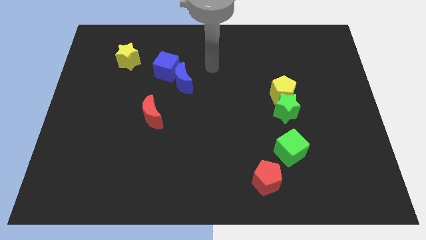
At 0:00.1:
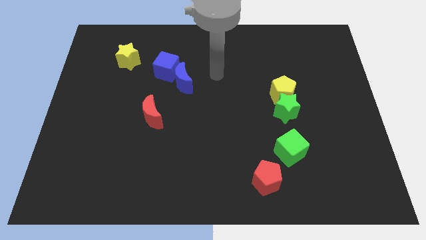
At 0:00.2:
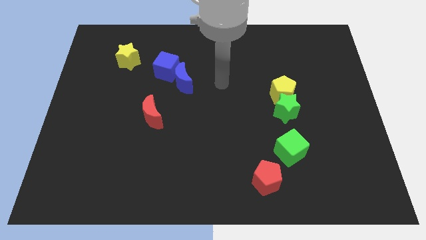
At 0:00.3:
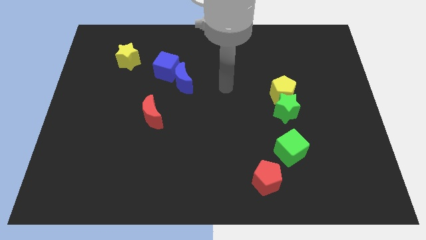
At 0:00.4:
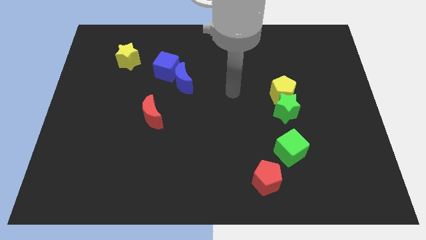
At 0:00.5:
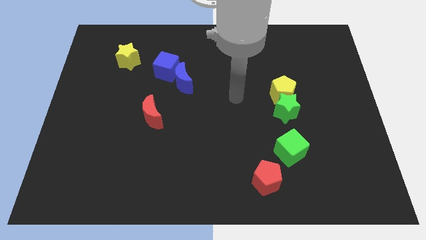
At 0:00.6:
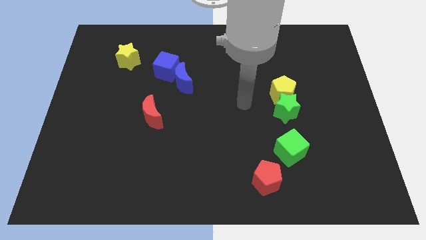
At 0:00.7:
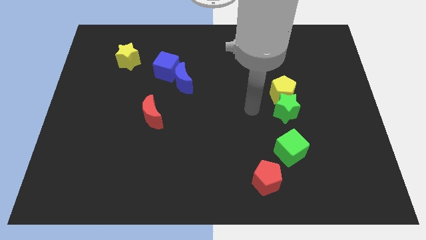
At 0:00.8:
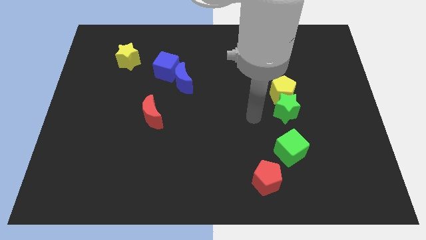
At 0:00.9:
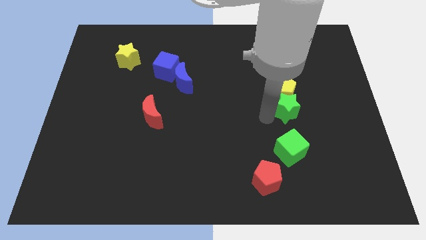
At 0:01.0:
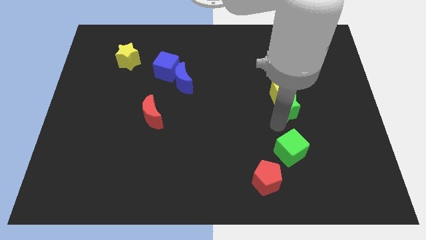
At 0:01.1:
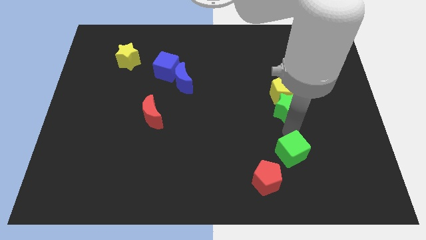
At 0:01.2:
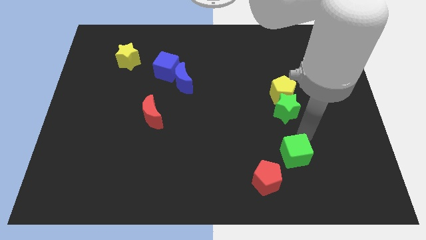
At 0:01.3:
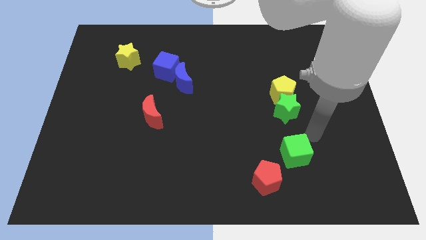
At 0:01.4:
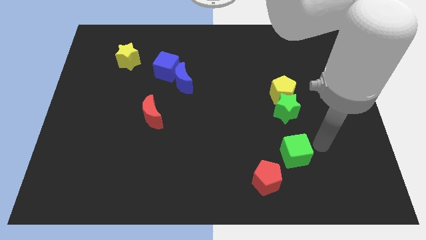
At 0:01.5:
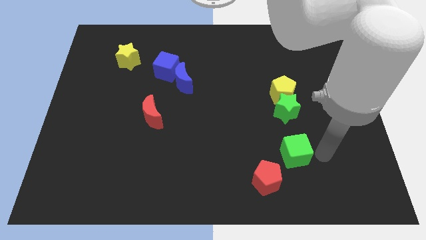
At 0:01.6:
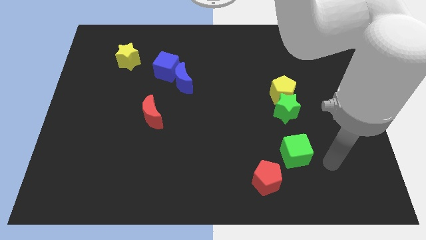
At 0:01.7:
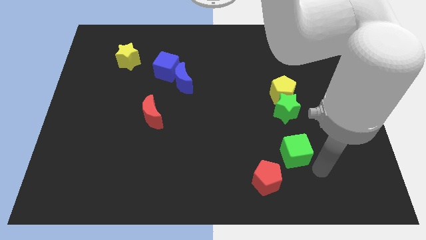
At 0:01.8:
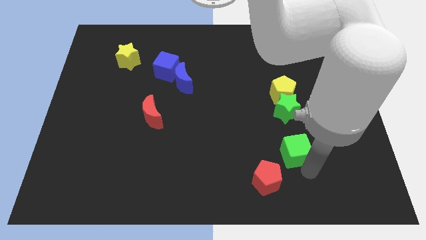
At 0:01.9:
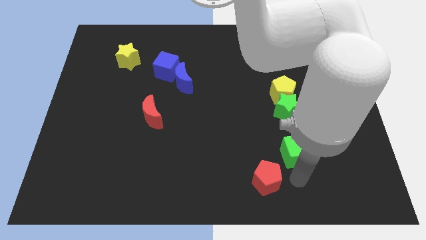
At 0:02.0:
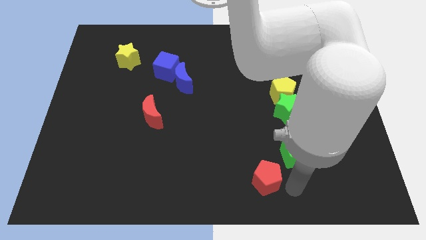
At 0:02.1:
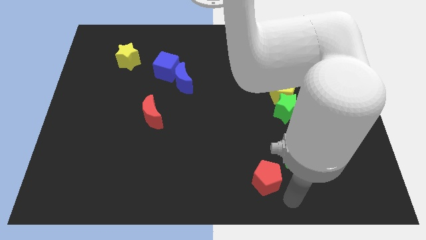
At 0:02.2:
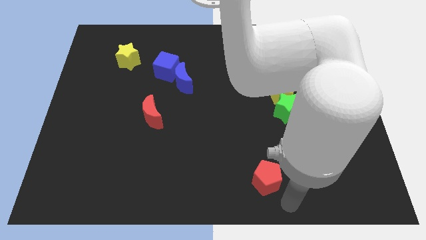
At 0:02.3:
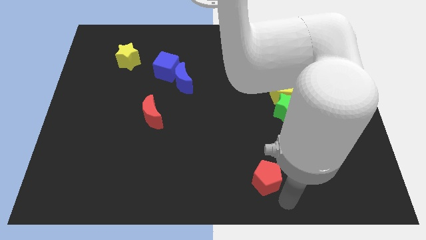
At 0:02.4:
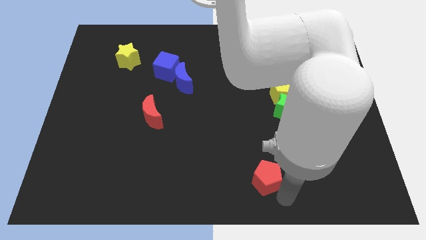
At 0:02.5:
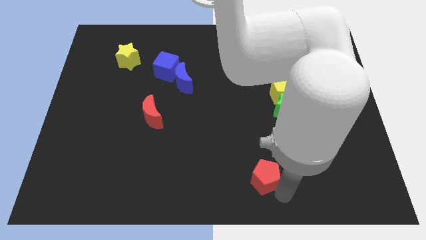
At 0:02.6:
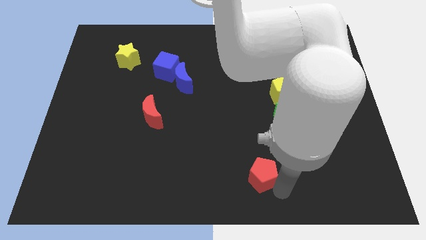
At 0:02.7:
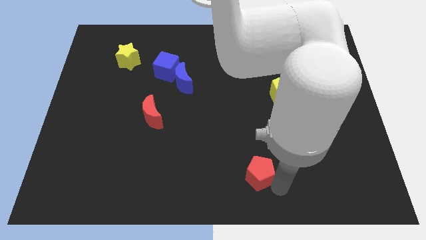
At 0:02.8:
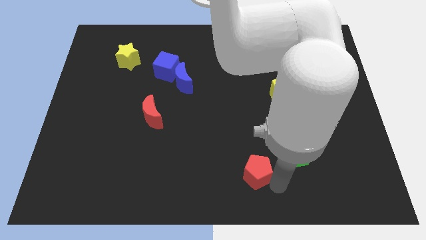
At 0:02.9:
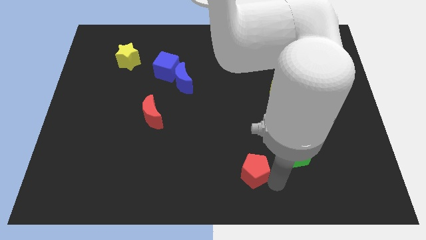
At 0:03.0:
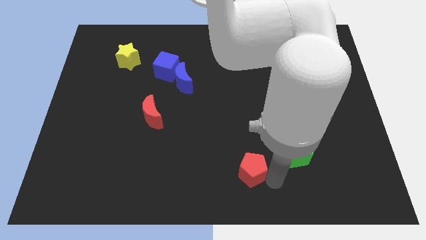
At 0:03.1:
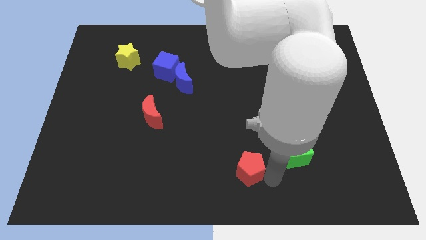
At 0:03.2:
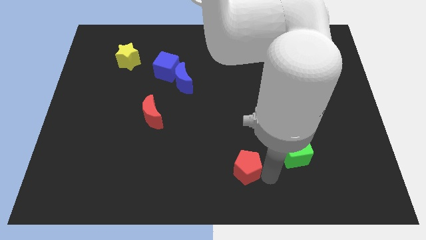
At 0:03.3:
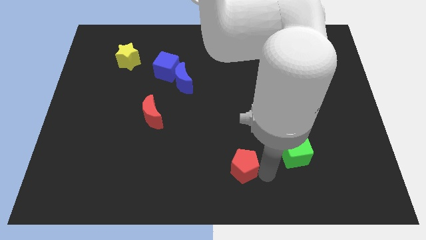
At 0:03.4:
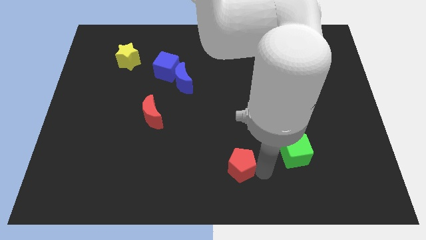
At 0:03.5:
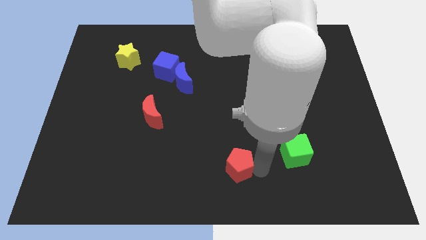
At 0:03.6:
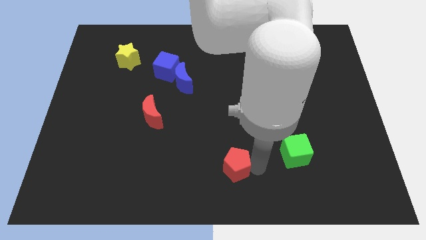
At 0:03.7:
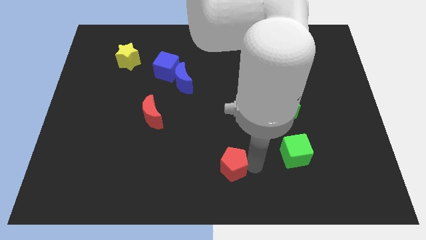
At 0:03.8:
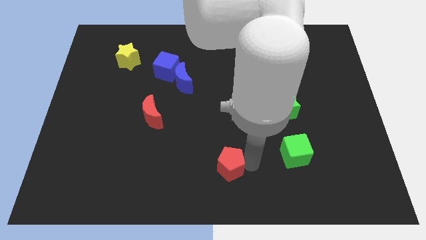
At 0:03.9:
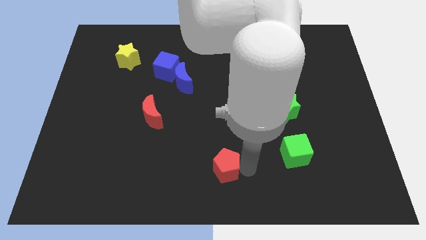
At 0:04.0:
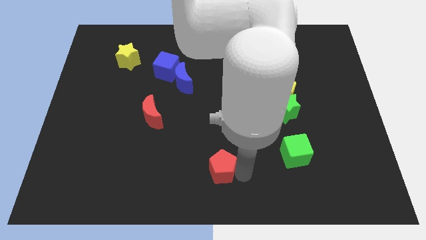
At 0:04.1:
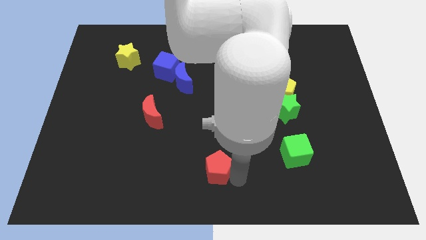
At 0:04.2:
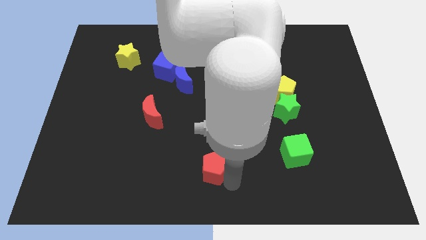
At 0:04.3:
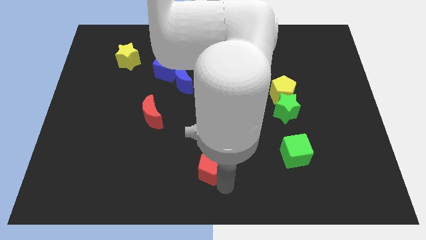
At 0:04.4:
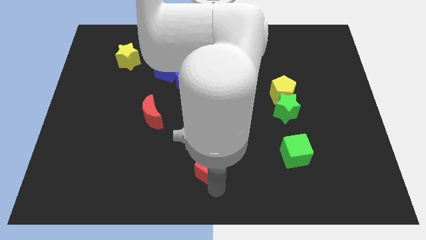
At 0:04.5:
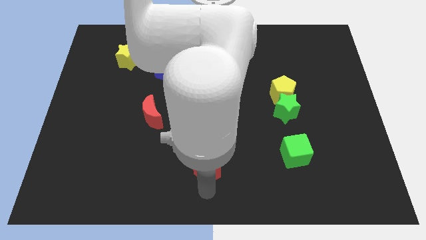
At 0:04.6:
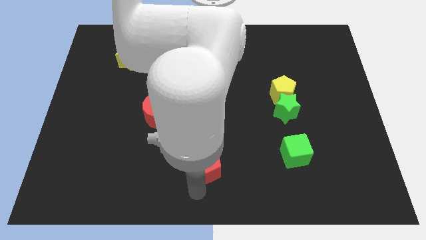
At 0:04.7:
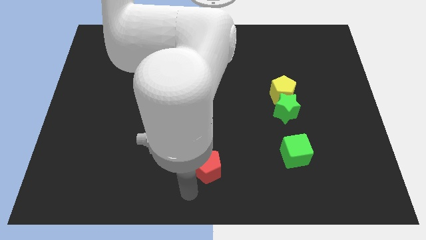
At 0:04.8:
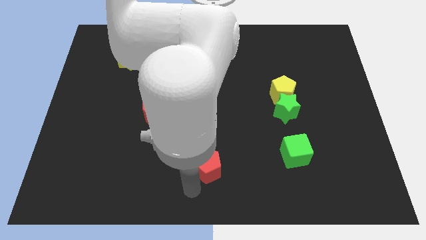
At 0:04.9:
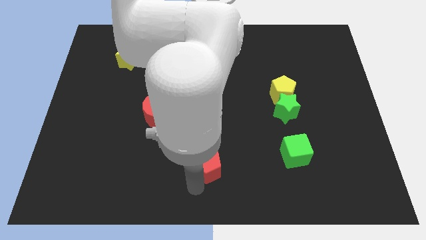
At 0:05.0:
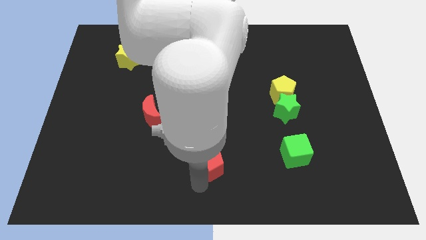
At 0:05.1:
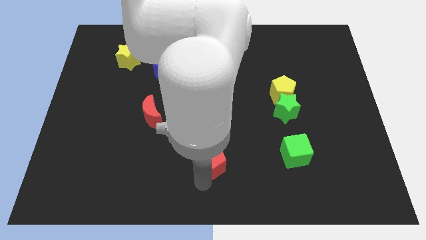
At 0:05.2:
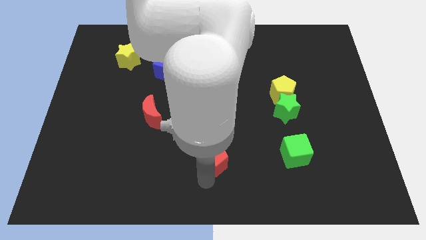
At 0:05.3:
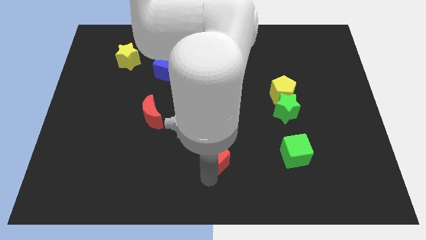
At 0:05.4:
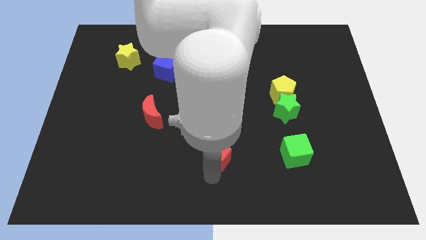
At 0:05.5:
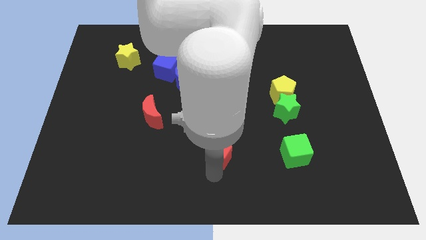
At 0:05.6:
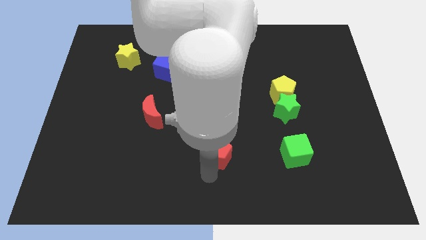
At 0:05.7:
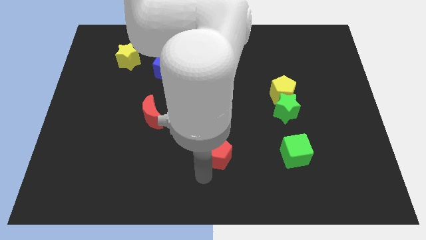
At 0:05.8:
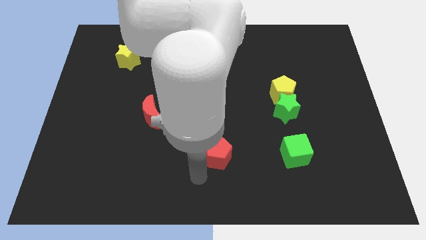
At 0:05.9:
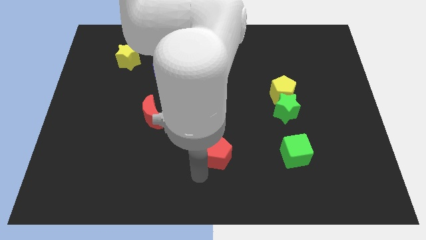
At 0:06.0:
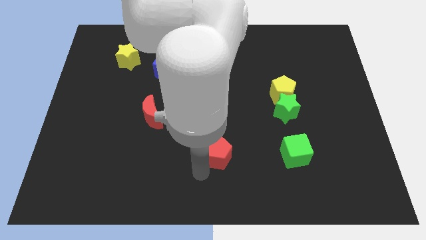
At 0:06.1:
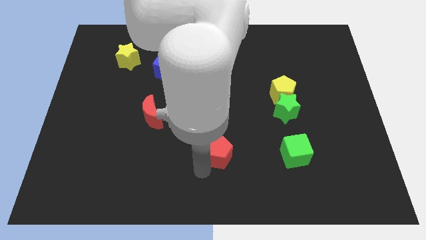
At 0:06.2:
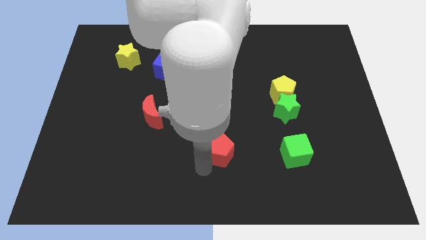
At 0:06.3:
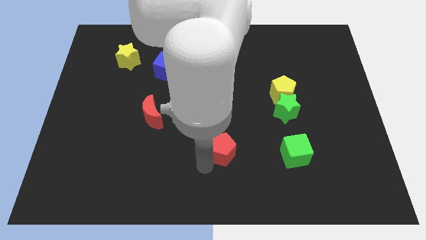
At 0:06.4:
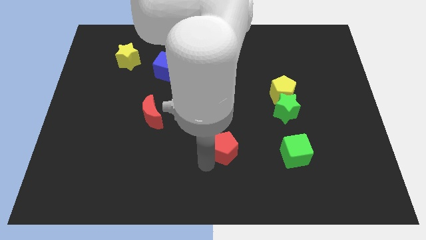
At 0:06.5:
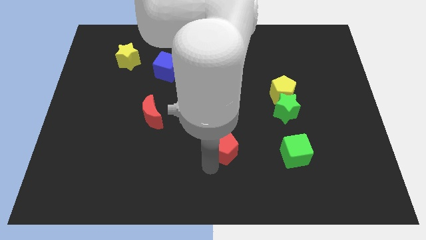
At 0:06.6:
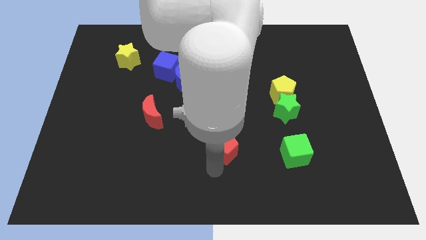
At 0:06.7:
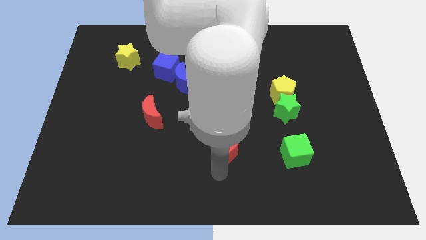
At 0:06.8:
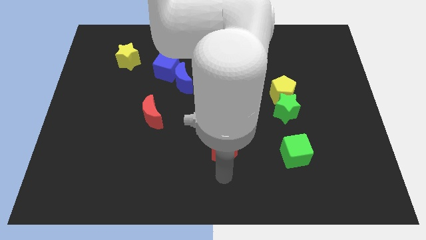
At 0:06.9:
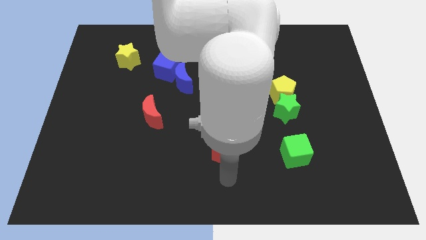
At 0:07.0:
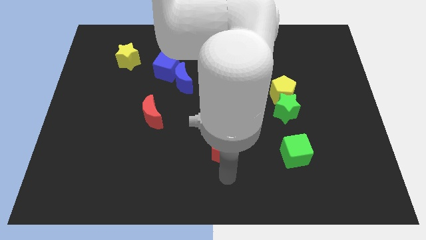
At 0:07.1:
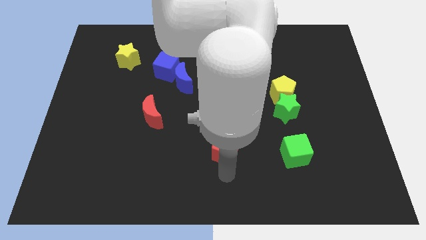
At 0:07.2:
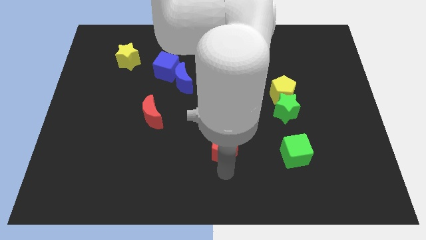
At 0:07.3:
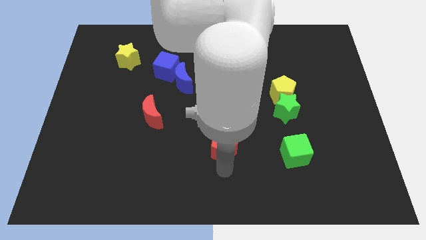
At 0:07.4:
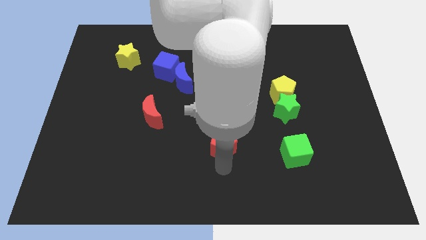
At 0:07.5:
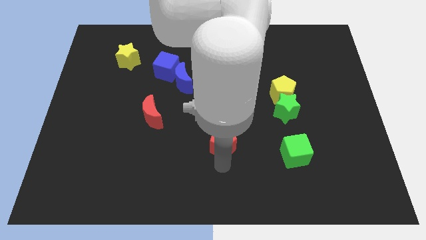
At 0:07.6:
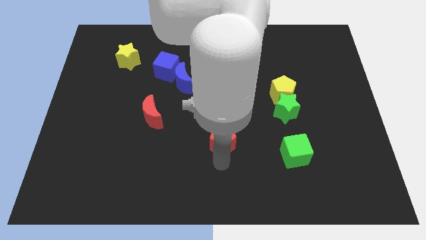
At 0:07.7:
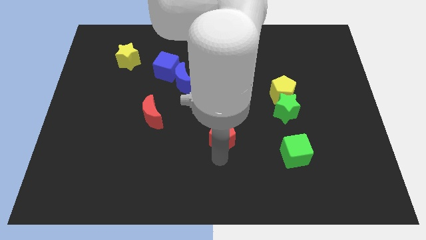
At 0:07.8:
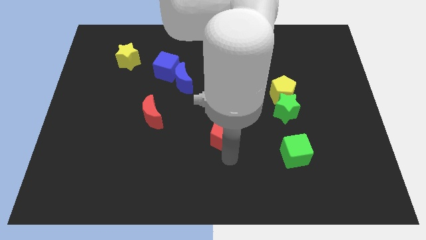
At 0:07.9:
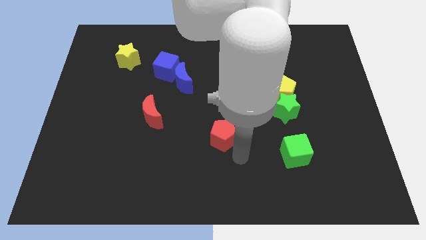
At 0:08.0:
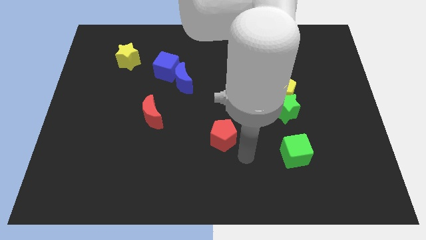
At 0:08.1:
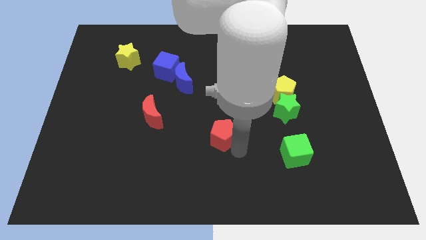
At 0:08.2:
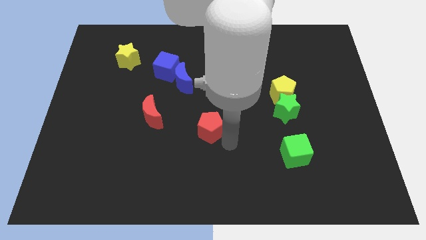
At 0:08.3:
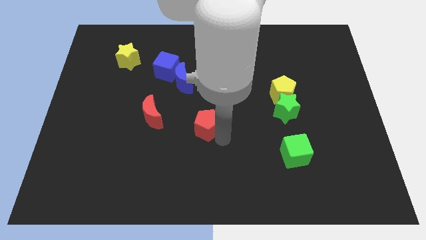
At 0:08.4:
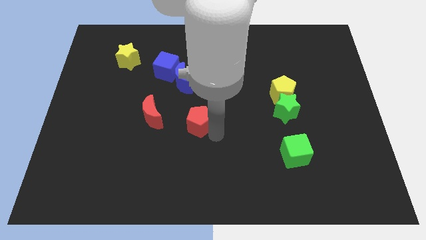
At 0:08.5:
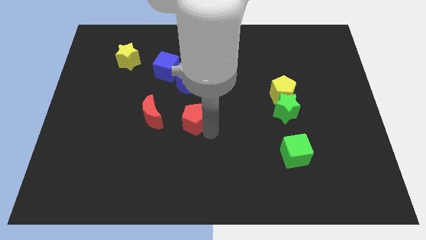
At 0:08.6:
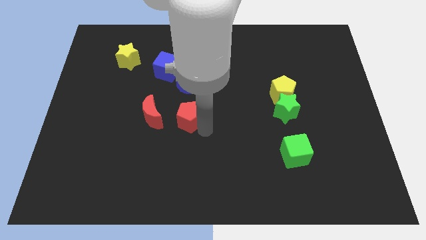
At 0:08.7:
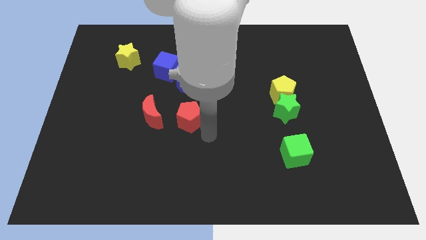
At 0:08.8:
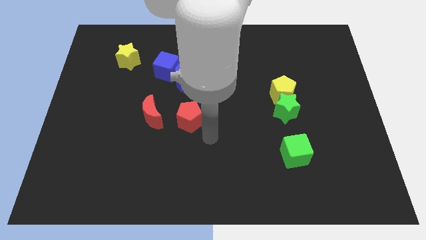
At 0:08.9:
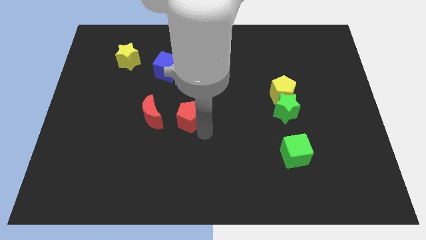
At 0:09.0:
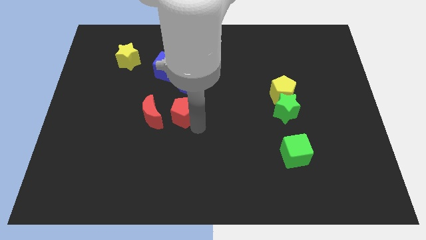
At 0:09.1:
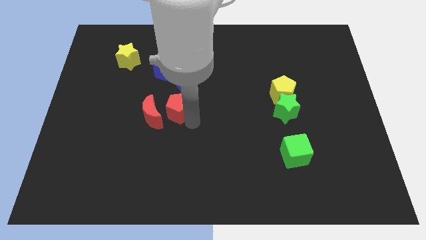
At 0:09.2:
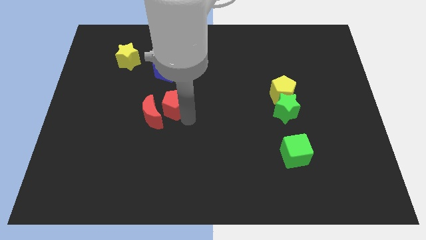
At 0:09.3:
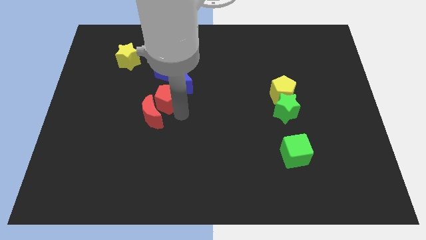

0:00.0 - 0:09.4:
put the red pentagon above the red moon
